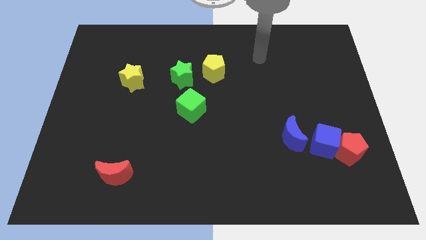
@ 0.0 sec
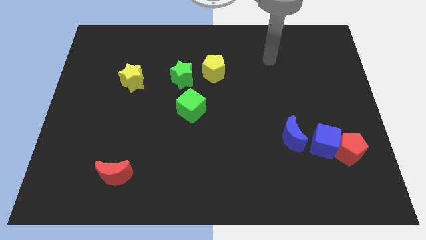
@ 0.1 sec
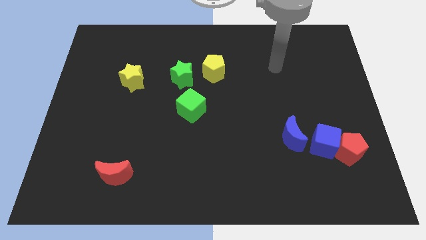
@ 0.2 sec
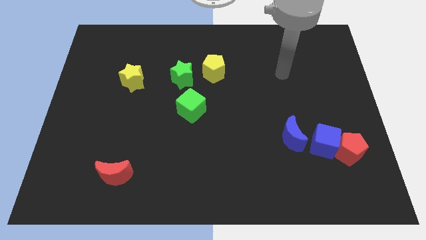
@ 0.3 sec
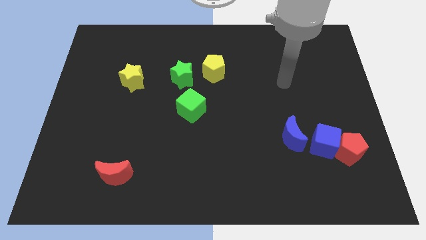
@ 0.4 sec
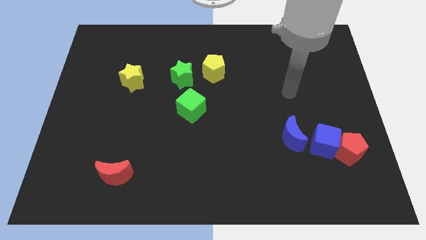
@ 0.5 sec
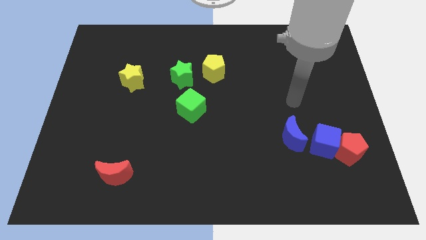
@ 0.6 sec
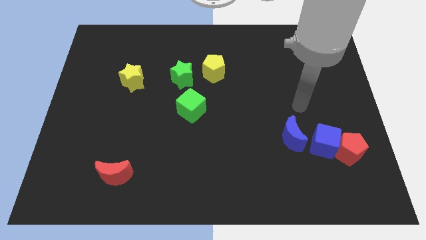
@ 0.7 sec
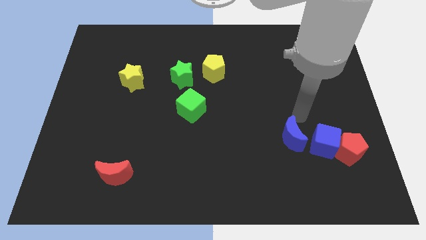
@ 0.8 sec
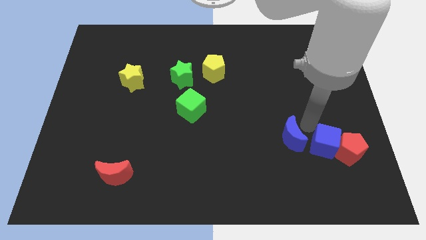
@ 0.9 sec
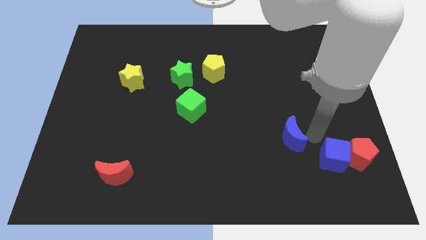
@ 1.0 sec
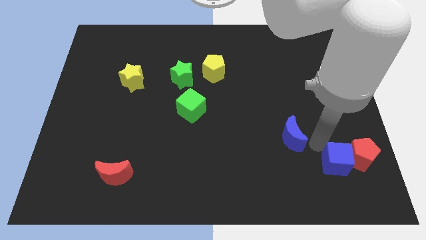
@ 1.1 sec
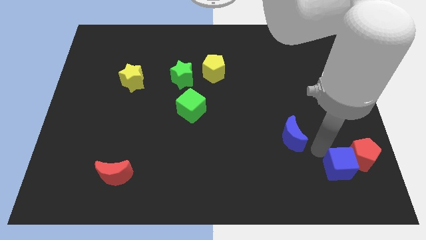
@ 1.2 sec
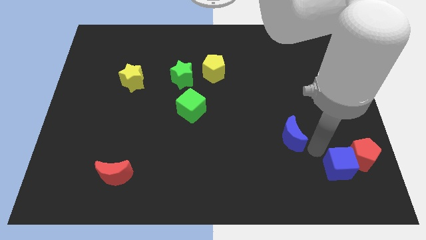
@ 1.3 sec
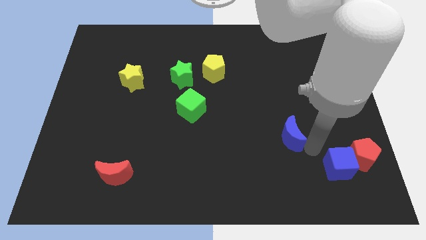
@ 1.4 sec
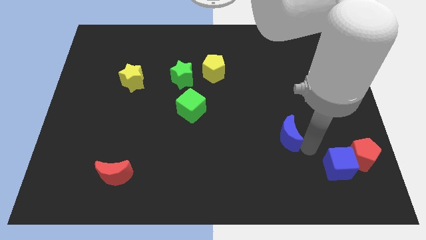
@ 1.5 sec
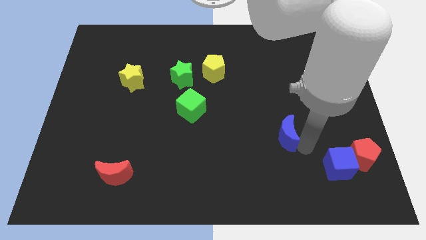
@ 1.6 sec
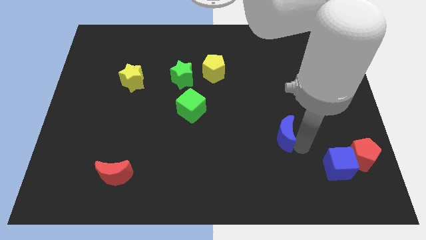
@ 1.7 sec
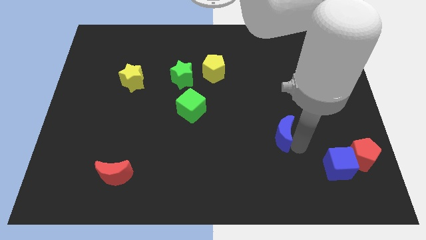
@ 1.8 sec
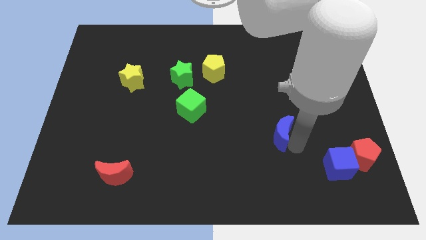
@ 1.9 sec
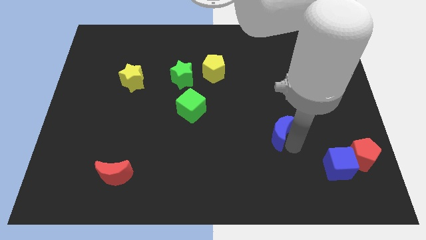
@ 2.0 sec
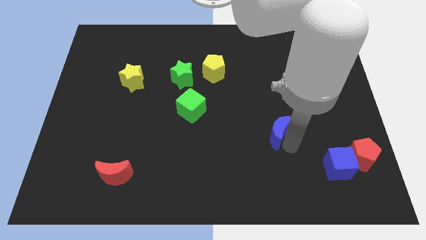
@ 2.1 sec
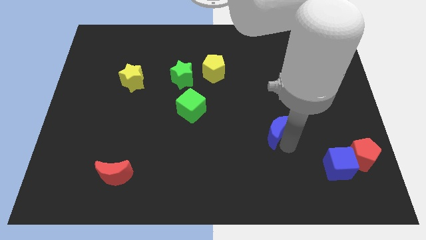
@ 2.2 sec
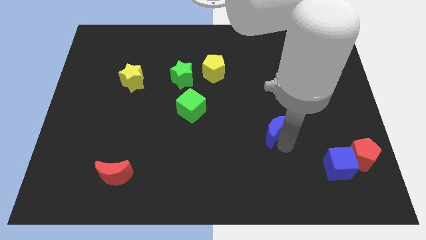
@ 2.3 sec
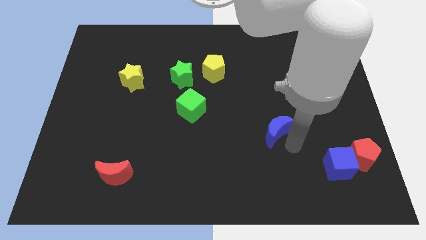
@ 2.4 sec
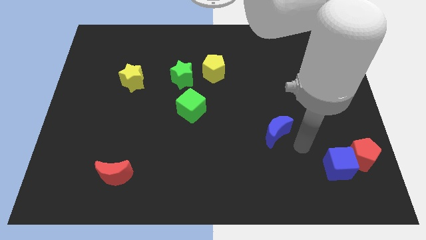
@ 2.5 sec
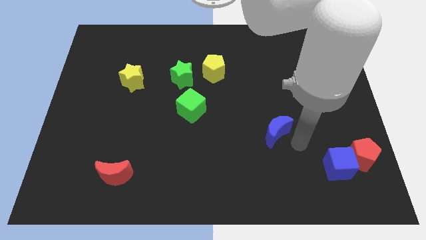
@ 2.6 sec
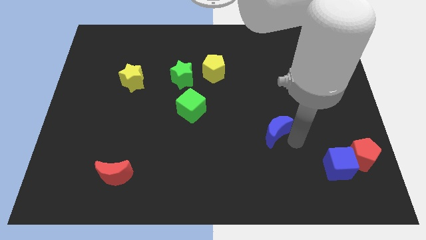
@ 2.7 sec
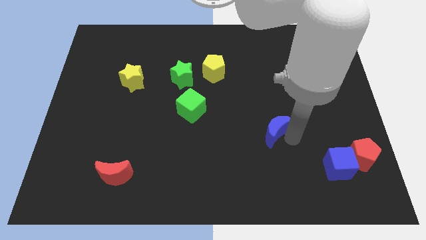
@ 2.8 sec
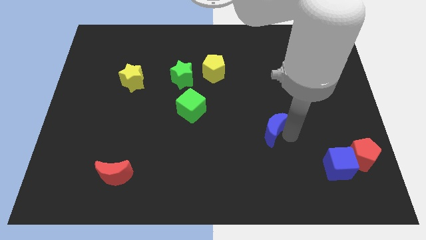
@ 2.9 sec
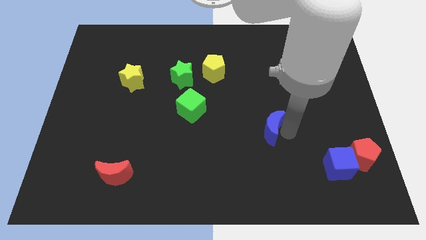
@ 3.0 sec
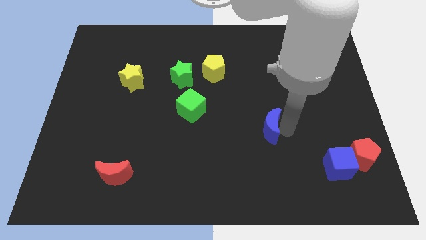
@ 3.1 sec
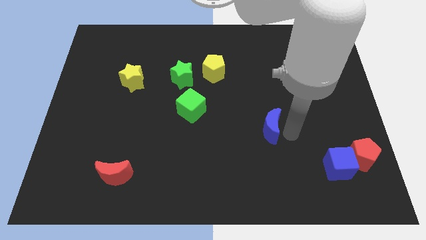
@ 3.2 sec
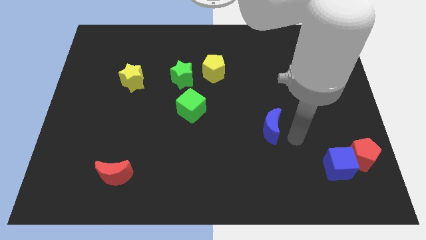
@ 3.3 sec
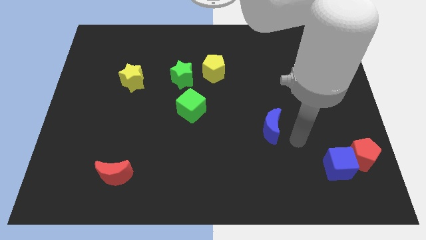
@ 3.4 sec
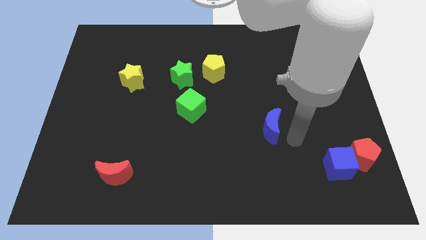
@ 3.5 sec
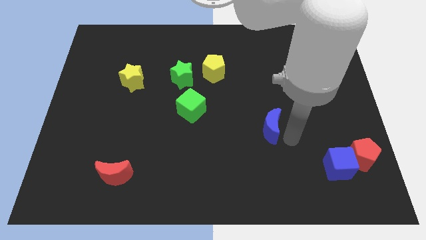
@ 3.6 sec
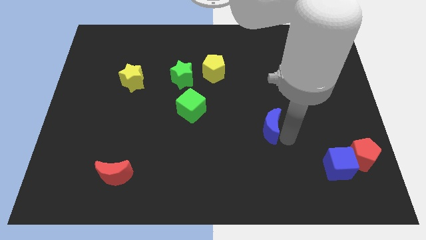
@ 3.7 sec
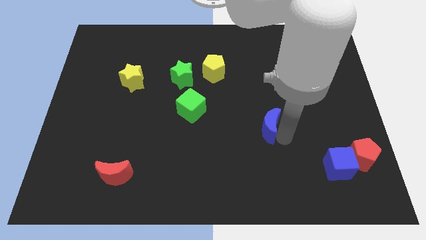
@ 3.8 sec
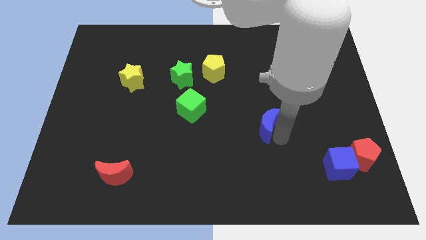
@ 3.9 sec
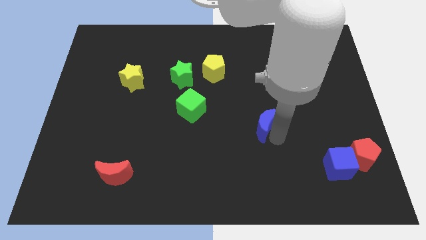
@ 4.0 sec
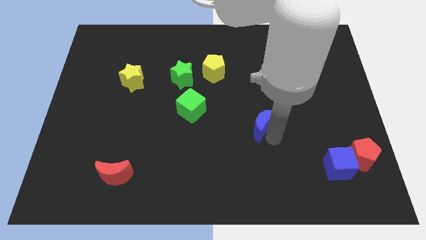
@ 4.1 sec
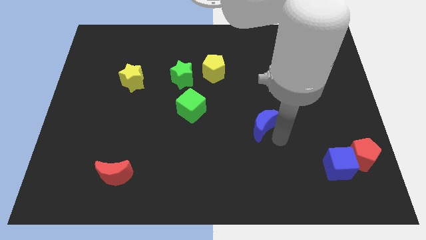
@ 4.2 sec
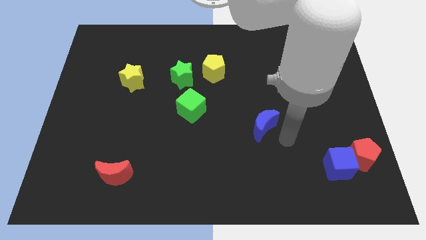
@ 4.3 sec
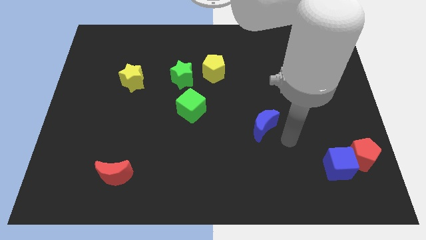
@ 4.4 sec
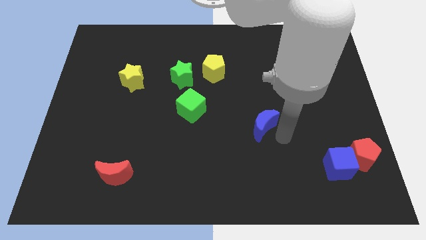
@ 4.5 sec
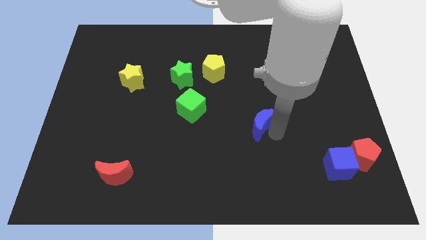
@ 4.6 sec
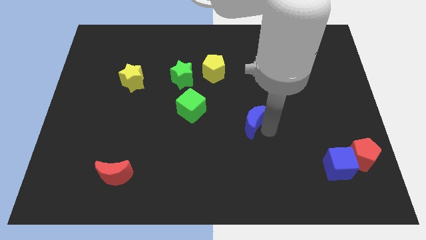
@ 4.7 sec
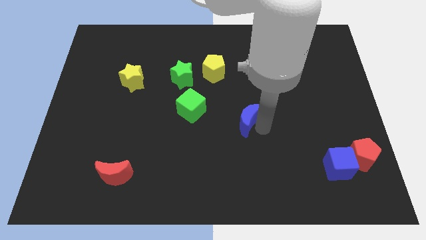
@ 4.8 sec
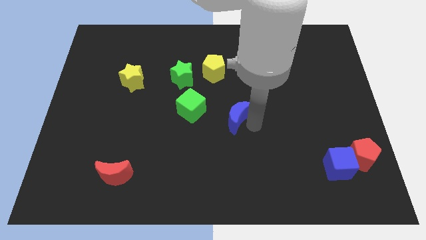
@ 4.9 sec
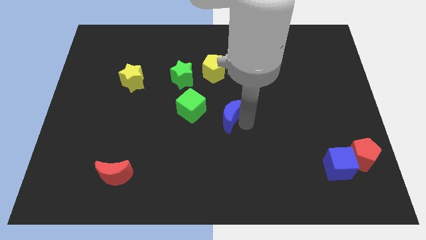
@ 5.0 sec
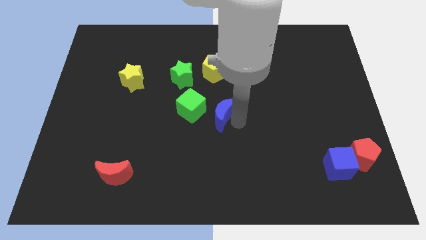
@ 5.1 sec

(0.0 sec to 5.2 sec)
slide the blue moon to the bottom side of the yellow pentagon

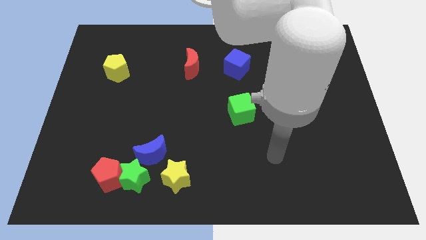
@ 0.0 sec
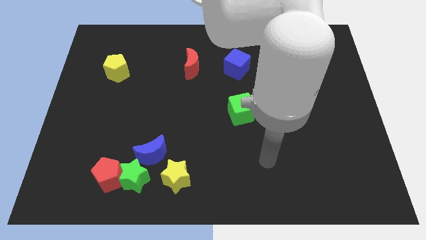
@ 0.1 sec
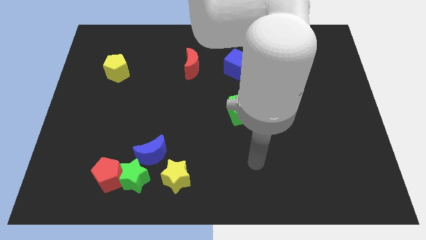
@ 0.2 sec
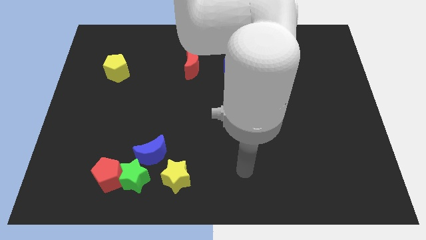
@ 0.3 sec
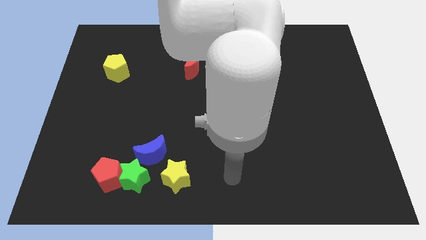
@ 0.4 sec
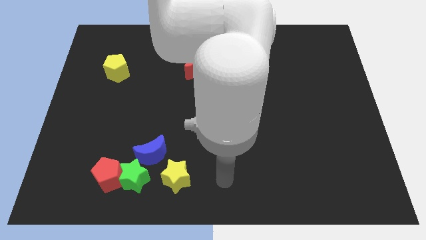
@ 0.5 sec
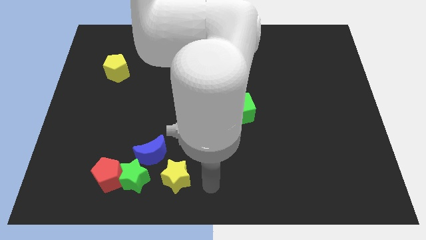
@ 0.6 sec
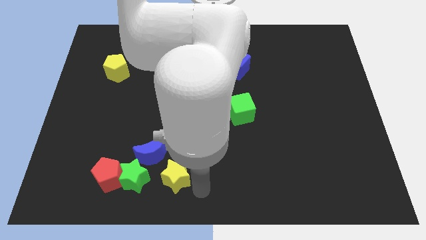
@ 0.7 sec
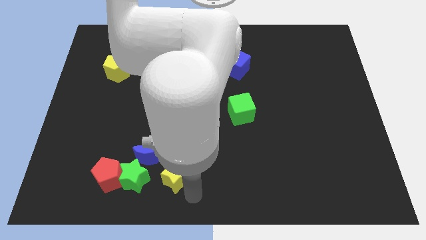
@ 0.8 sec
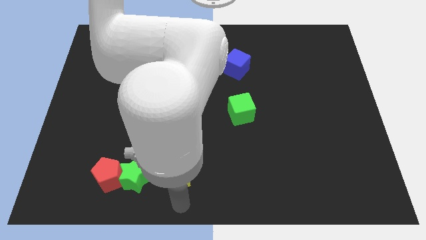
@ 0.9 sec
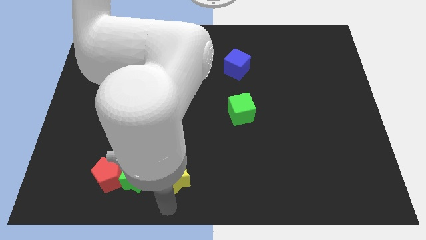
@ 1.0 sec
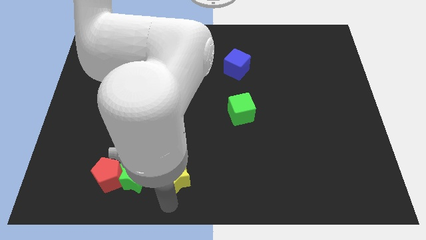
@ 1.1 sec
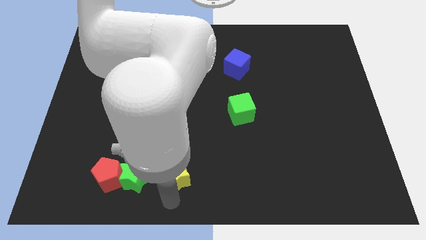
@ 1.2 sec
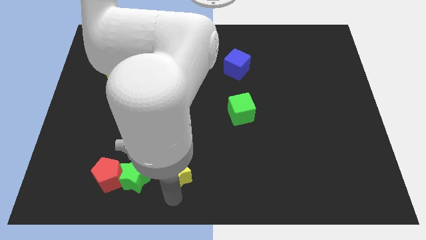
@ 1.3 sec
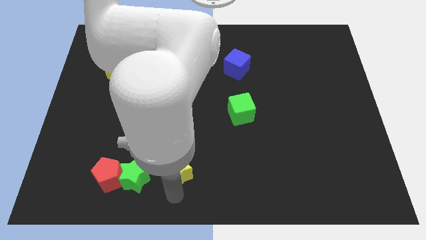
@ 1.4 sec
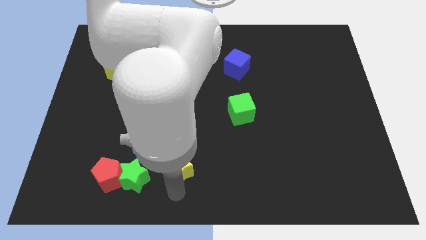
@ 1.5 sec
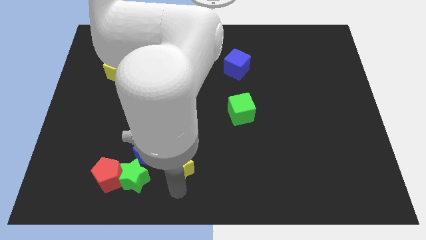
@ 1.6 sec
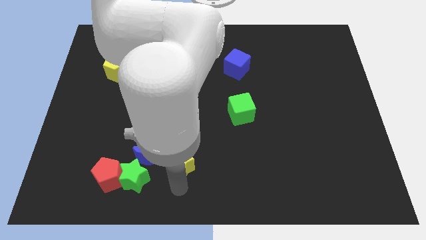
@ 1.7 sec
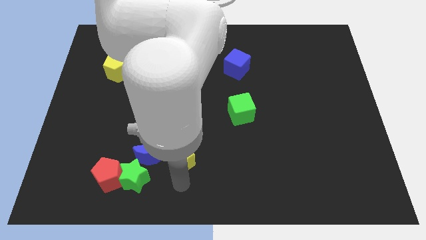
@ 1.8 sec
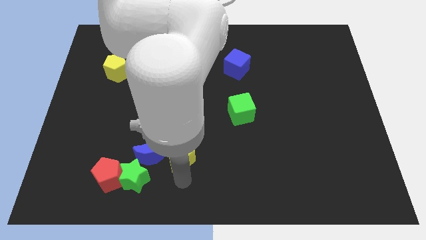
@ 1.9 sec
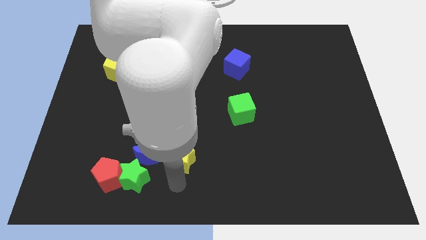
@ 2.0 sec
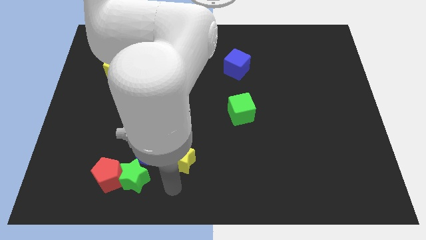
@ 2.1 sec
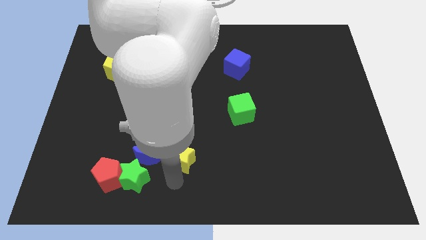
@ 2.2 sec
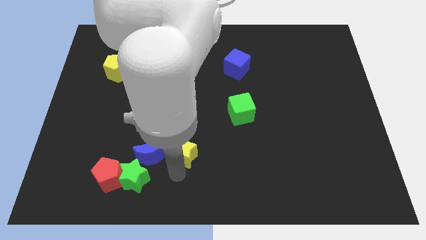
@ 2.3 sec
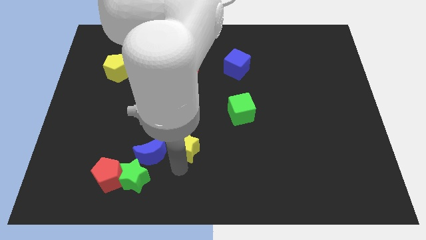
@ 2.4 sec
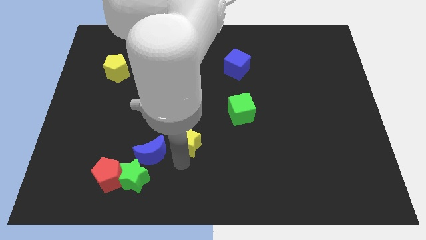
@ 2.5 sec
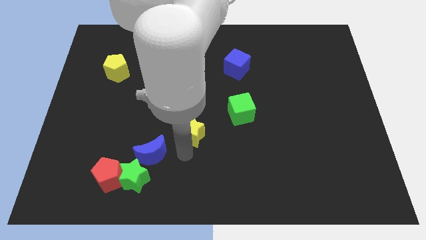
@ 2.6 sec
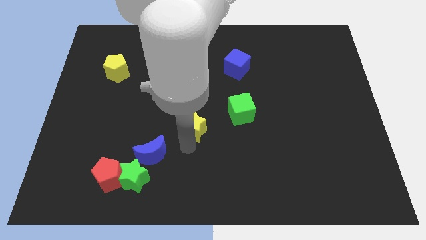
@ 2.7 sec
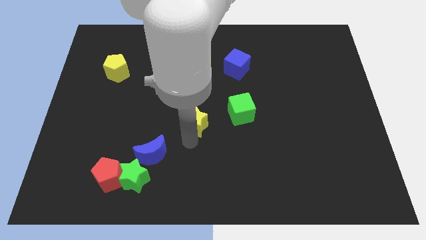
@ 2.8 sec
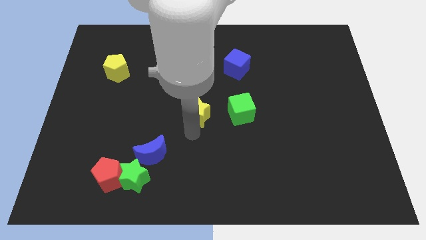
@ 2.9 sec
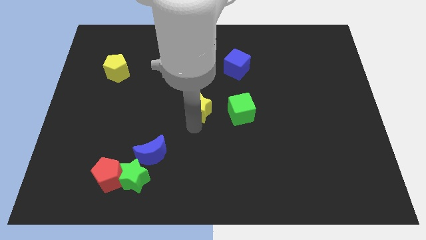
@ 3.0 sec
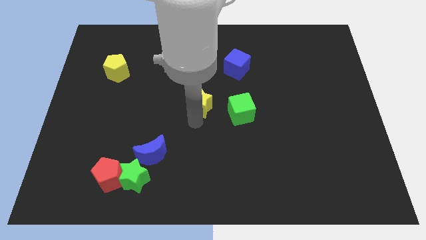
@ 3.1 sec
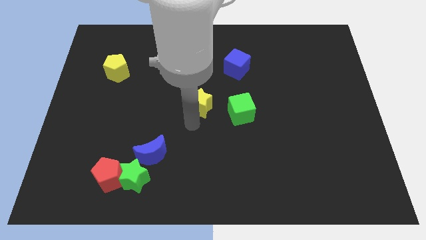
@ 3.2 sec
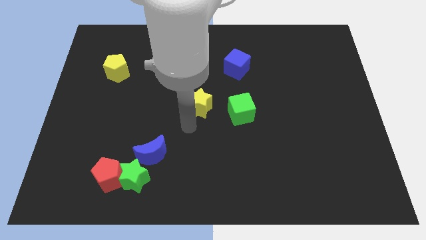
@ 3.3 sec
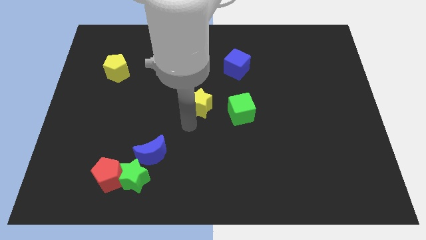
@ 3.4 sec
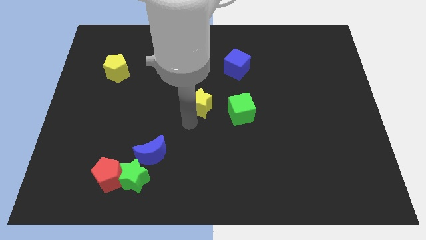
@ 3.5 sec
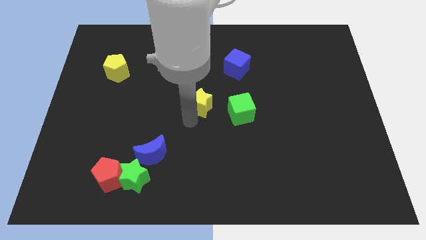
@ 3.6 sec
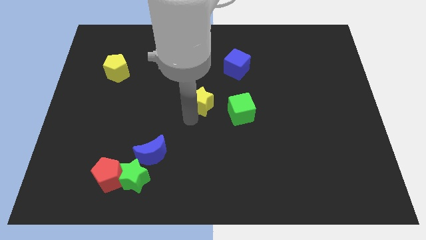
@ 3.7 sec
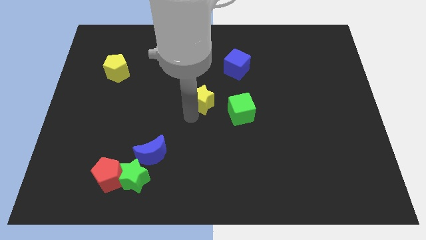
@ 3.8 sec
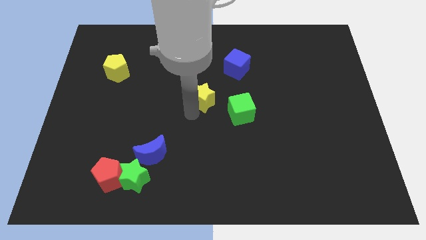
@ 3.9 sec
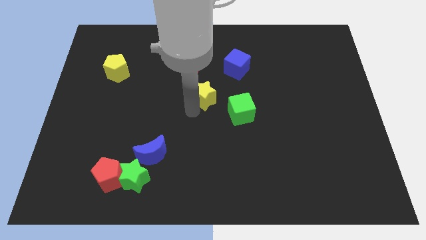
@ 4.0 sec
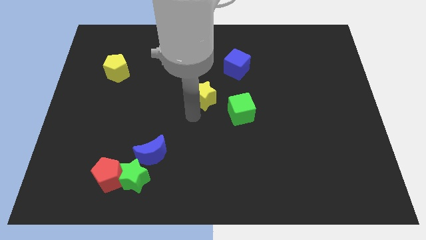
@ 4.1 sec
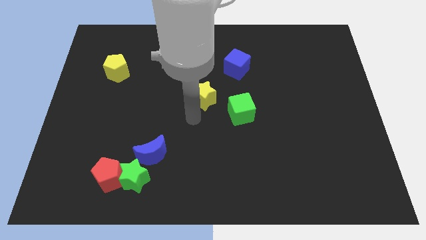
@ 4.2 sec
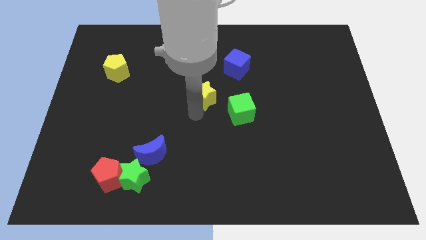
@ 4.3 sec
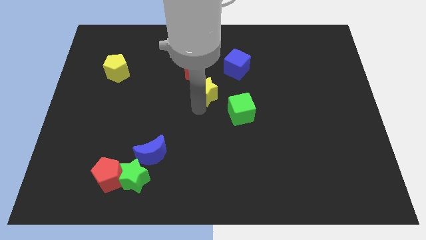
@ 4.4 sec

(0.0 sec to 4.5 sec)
put the yellow star diagonally down and to the right of the red moon
